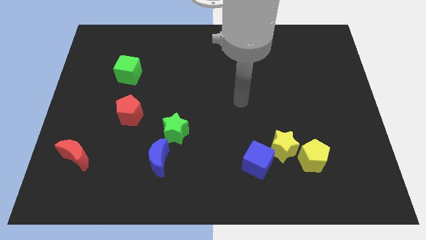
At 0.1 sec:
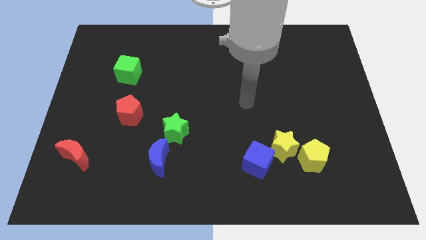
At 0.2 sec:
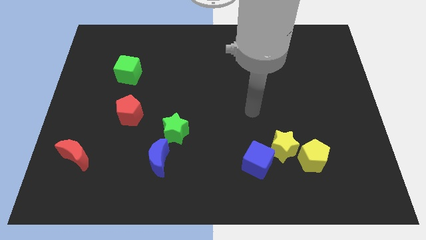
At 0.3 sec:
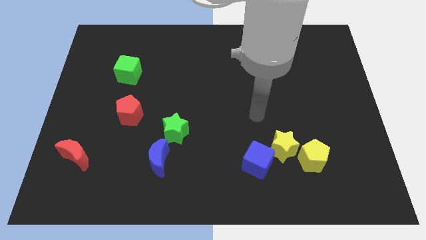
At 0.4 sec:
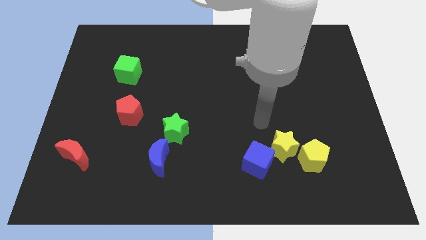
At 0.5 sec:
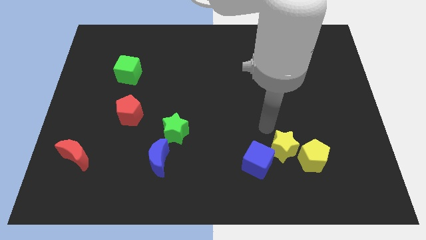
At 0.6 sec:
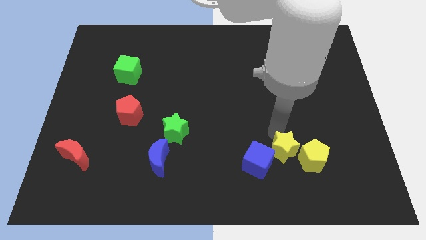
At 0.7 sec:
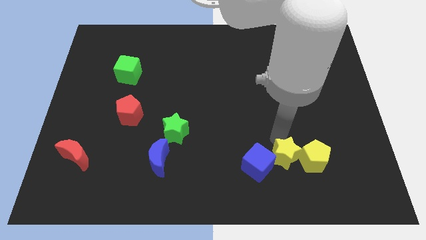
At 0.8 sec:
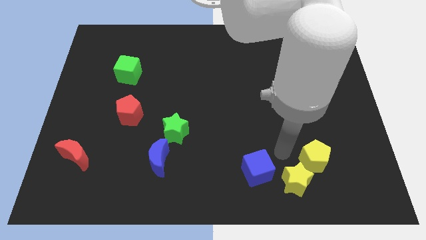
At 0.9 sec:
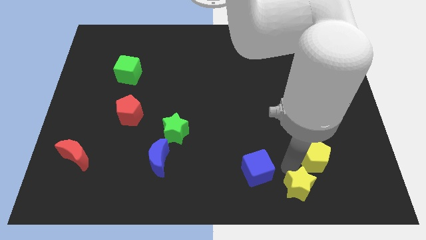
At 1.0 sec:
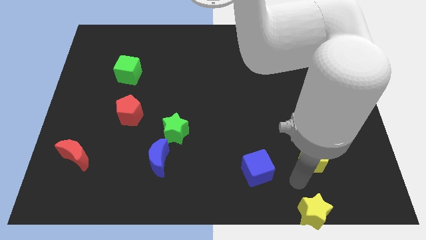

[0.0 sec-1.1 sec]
move the yellow pentagon away from the yellow star

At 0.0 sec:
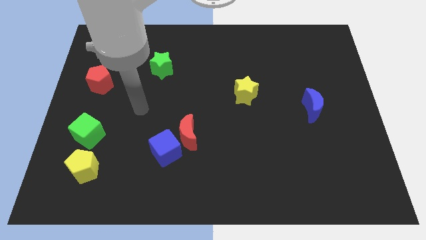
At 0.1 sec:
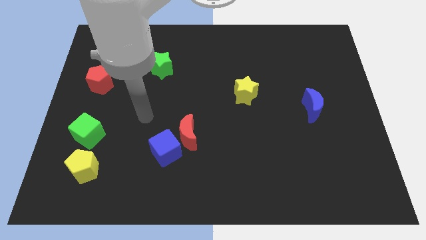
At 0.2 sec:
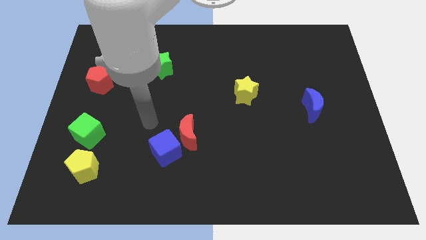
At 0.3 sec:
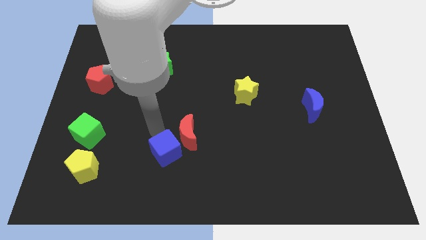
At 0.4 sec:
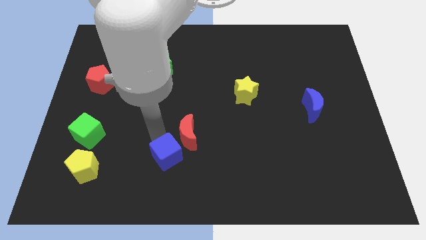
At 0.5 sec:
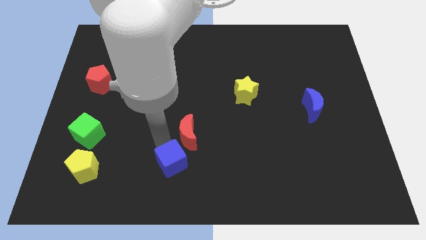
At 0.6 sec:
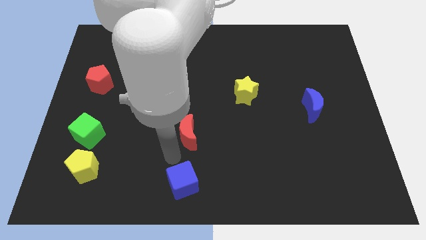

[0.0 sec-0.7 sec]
pull the red moon apart from the blue cube

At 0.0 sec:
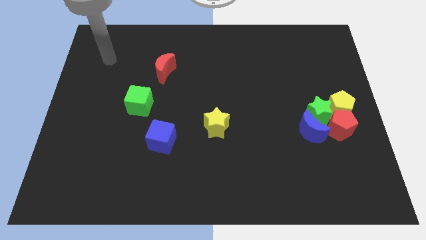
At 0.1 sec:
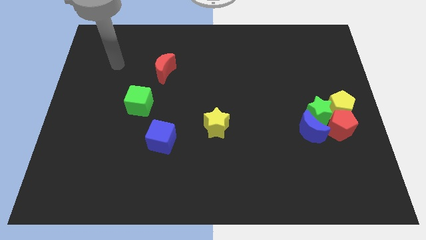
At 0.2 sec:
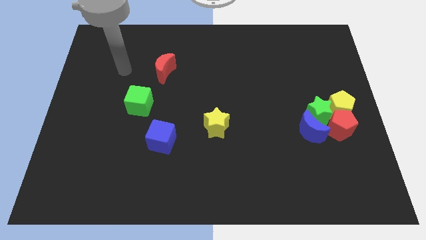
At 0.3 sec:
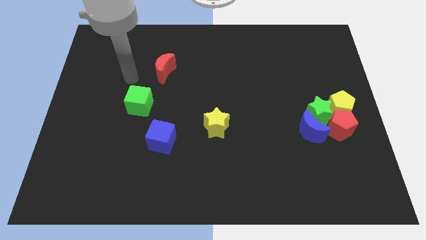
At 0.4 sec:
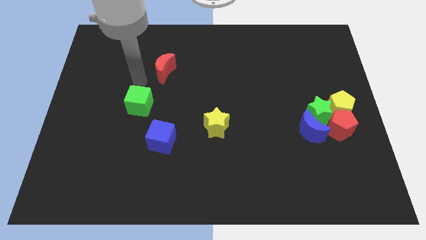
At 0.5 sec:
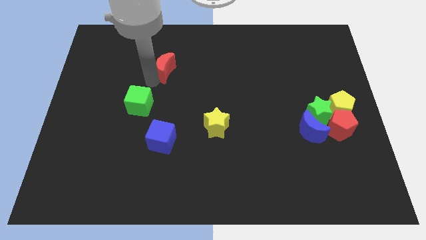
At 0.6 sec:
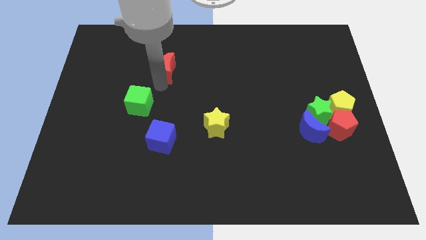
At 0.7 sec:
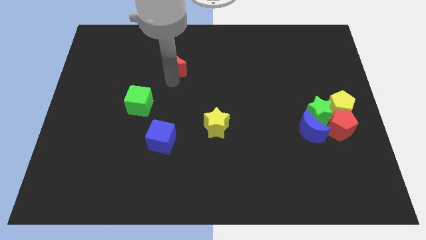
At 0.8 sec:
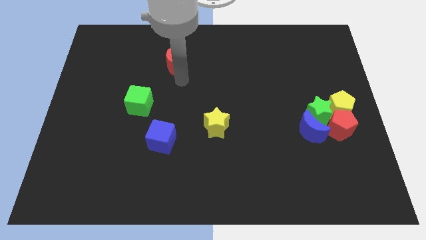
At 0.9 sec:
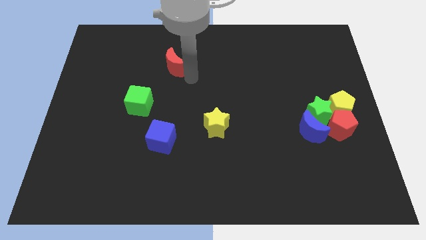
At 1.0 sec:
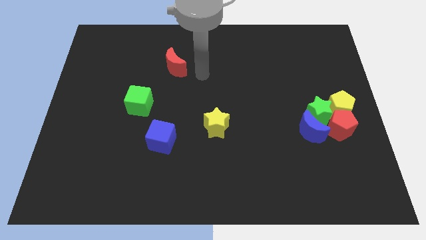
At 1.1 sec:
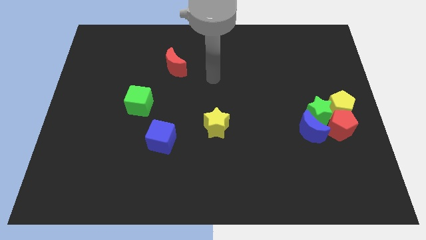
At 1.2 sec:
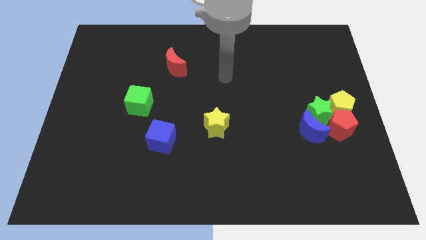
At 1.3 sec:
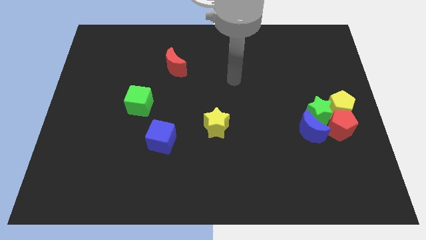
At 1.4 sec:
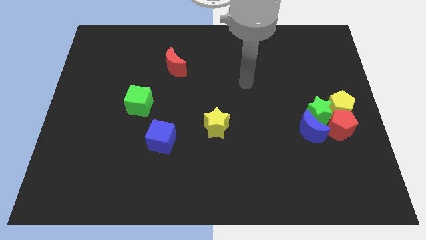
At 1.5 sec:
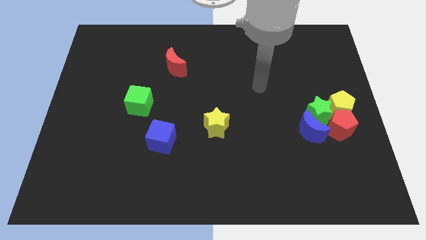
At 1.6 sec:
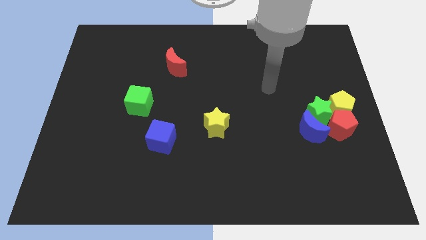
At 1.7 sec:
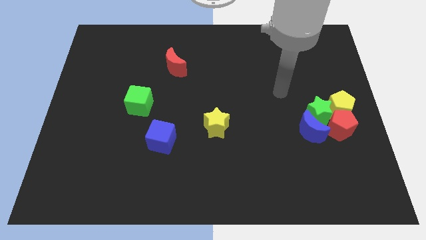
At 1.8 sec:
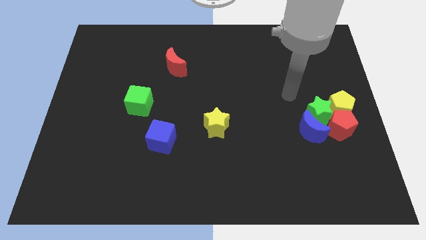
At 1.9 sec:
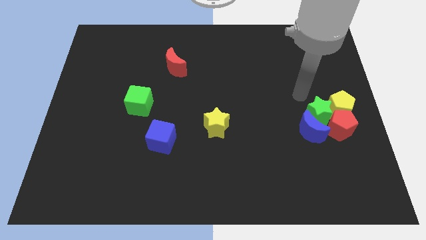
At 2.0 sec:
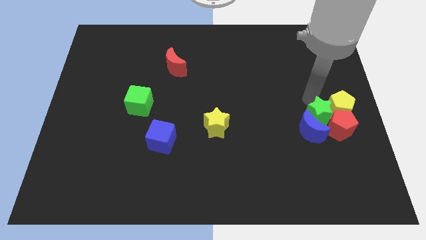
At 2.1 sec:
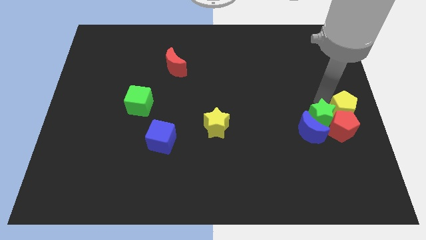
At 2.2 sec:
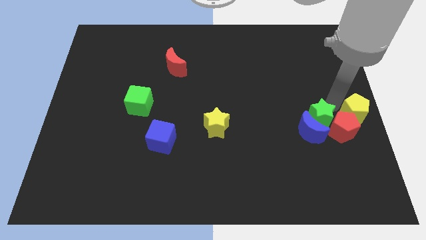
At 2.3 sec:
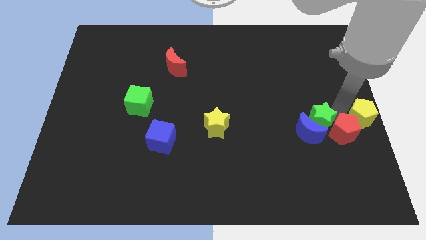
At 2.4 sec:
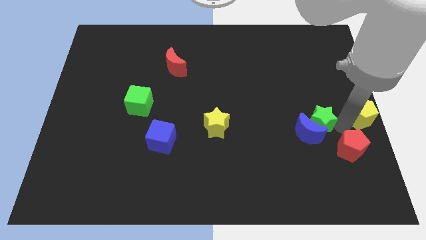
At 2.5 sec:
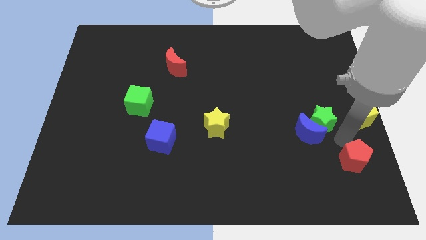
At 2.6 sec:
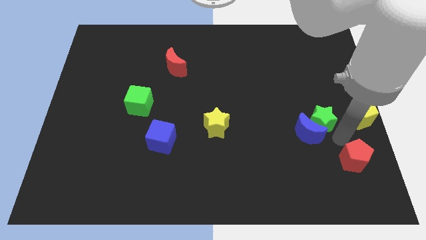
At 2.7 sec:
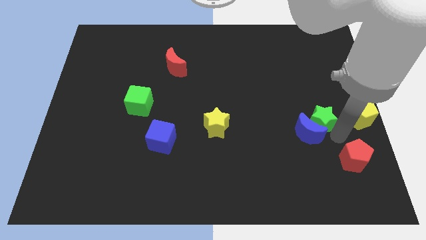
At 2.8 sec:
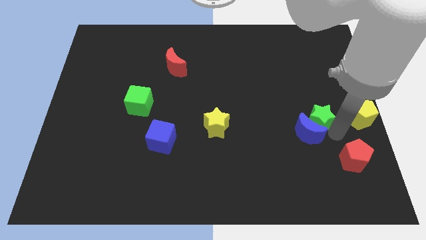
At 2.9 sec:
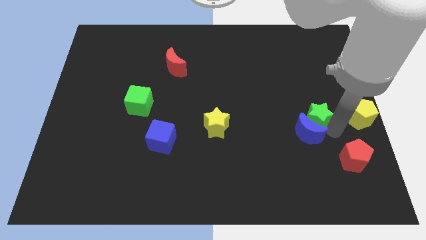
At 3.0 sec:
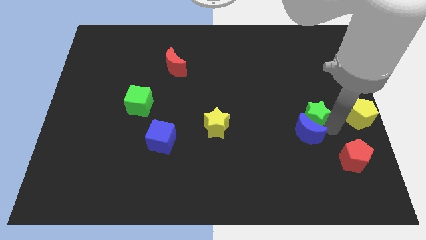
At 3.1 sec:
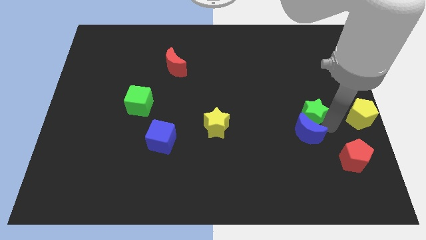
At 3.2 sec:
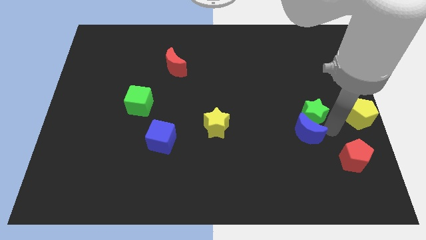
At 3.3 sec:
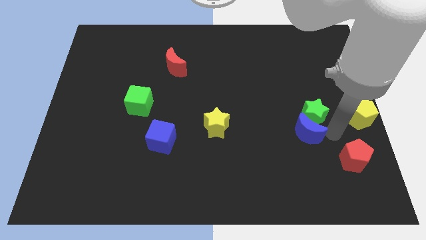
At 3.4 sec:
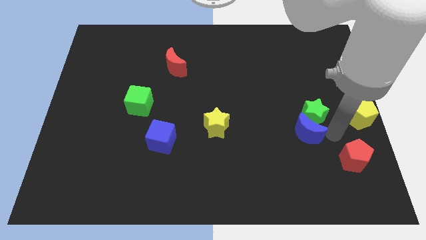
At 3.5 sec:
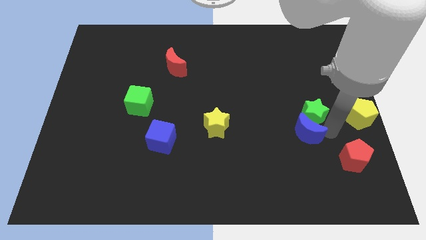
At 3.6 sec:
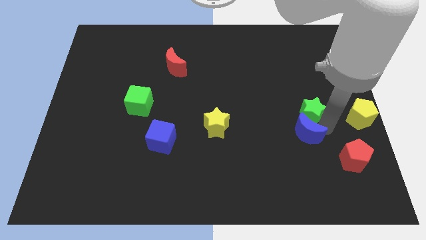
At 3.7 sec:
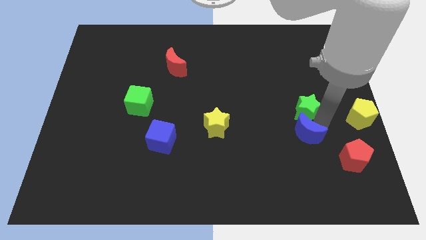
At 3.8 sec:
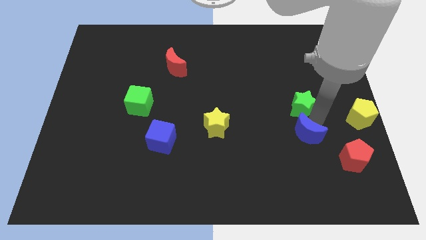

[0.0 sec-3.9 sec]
pull the green star apart from the group of blocks

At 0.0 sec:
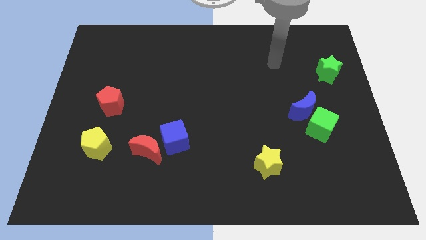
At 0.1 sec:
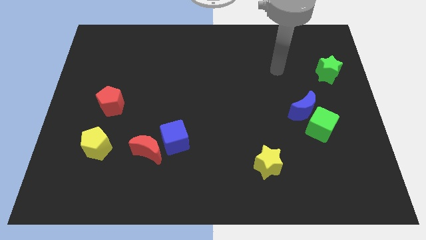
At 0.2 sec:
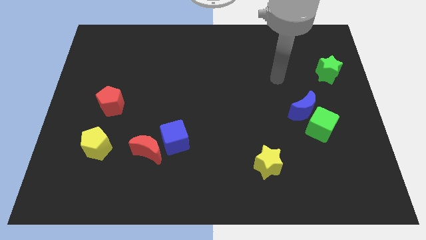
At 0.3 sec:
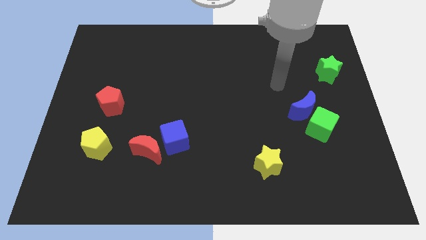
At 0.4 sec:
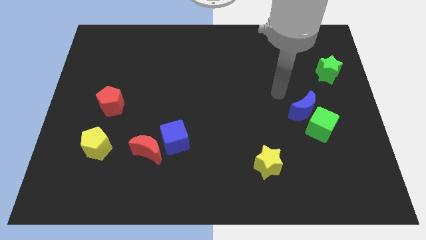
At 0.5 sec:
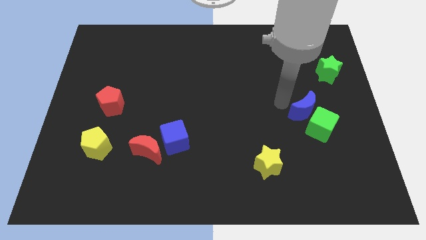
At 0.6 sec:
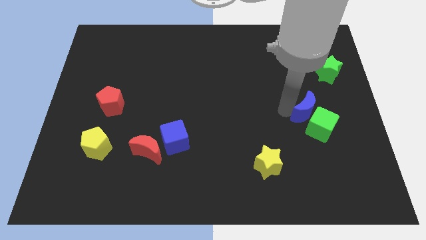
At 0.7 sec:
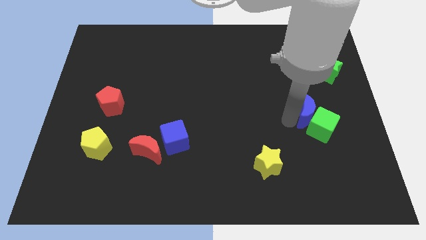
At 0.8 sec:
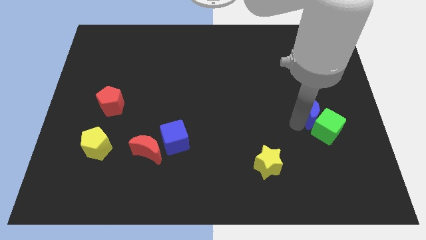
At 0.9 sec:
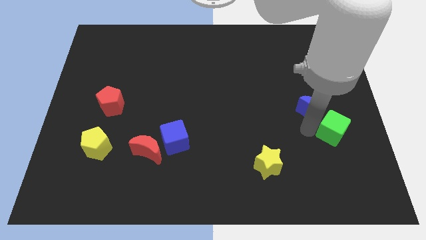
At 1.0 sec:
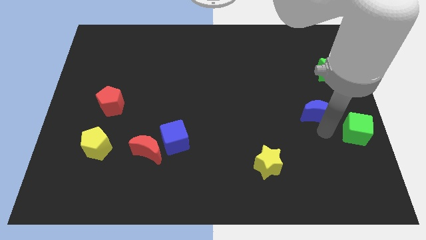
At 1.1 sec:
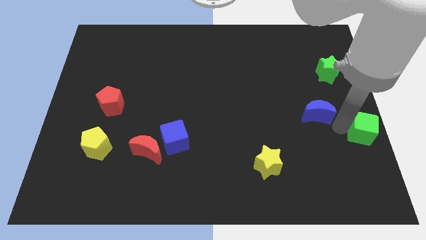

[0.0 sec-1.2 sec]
pull the blue moon apart from the green cube

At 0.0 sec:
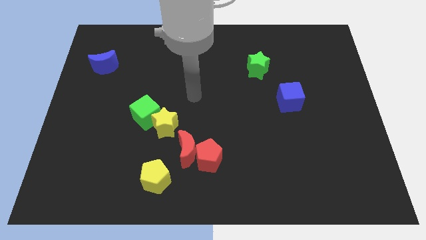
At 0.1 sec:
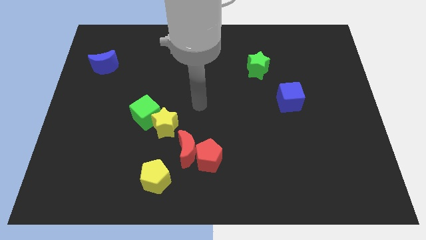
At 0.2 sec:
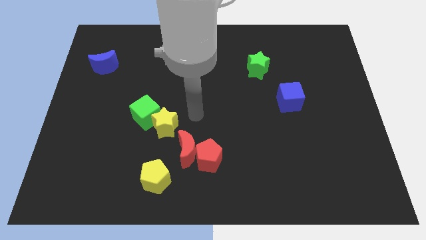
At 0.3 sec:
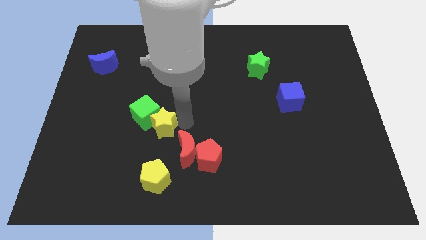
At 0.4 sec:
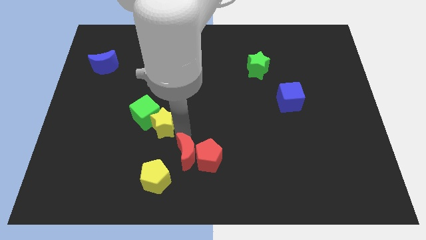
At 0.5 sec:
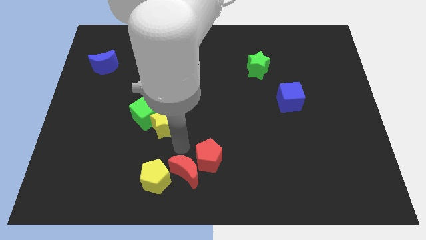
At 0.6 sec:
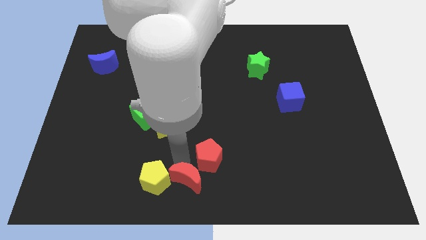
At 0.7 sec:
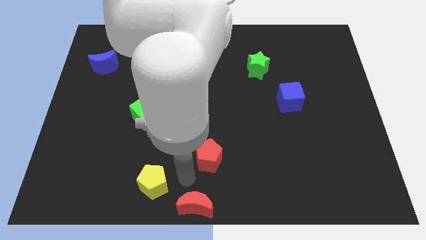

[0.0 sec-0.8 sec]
separate the red pentagon from the red moon

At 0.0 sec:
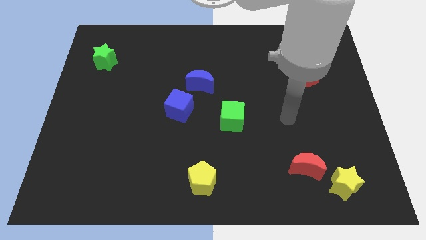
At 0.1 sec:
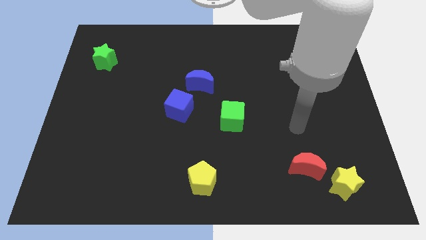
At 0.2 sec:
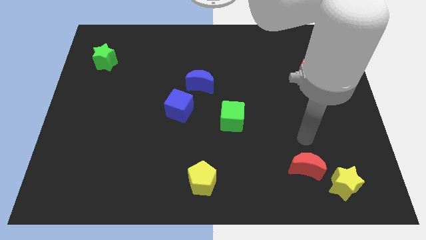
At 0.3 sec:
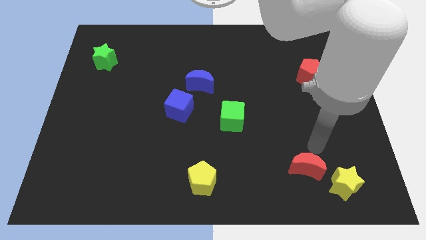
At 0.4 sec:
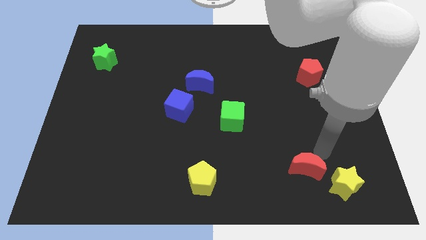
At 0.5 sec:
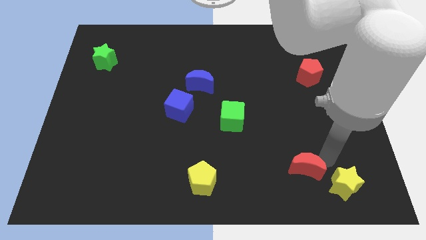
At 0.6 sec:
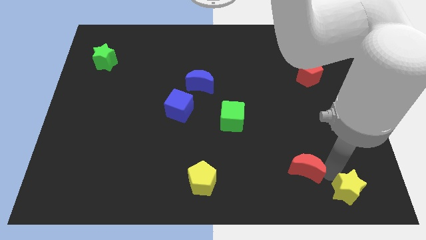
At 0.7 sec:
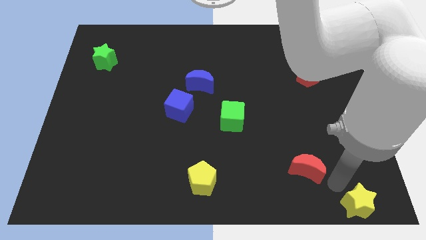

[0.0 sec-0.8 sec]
move the red moon away from the yellow star

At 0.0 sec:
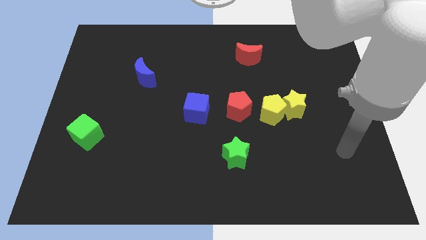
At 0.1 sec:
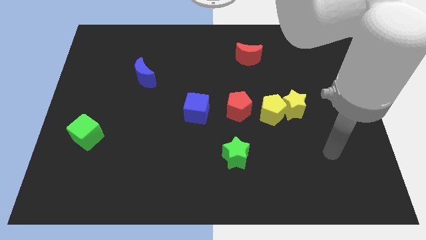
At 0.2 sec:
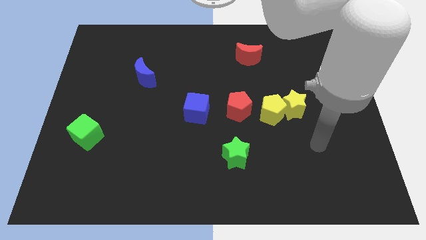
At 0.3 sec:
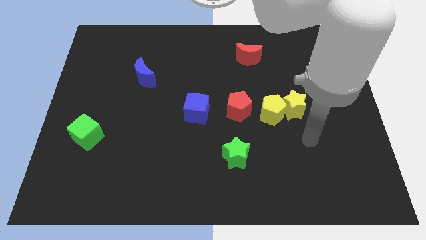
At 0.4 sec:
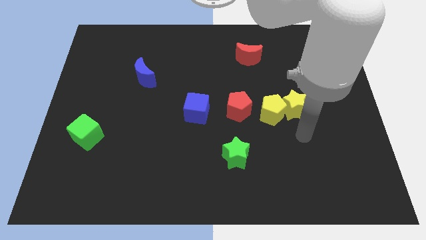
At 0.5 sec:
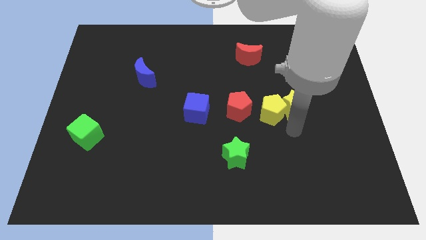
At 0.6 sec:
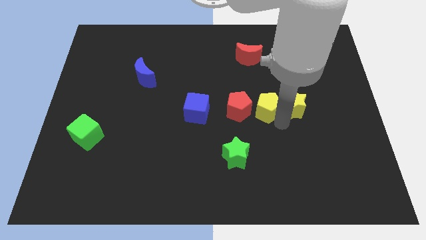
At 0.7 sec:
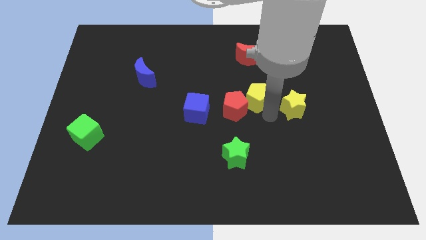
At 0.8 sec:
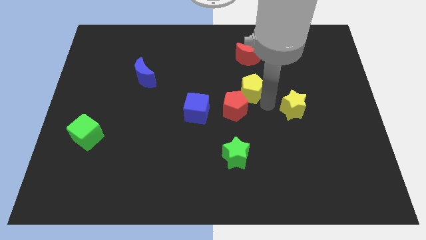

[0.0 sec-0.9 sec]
pull the yellow star apart from the yellow pentagon
